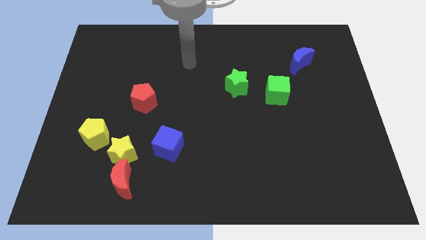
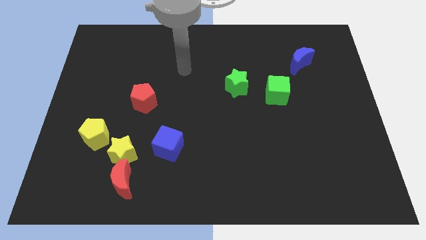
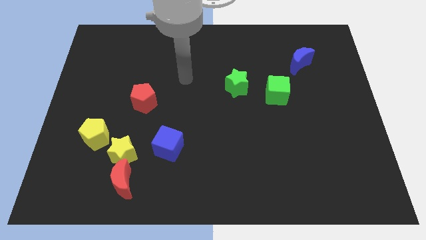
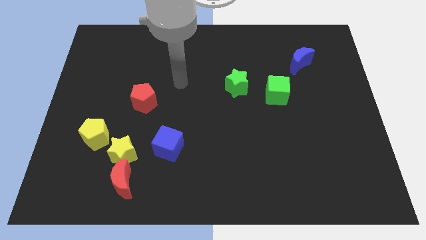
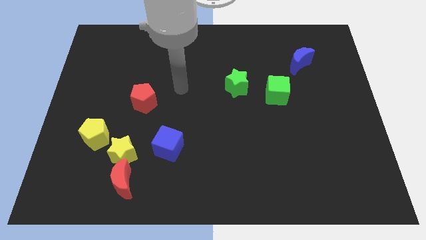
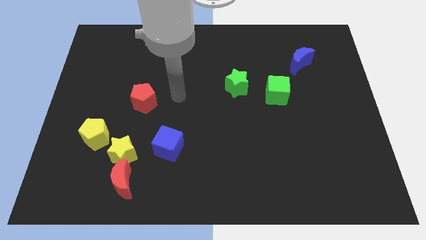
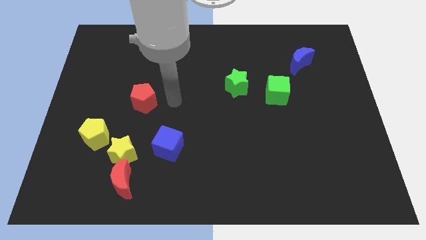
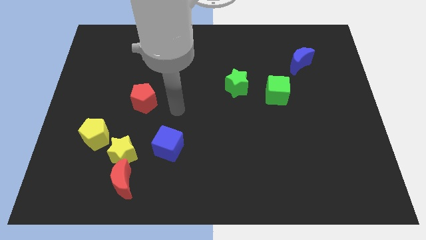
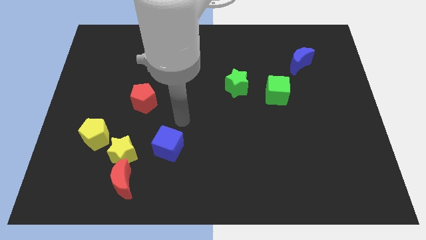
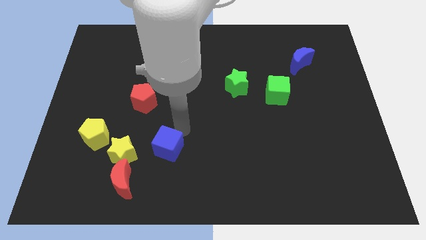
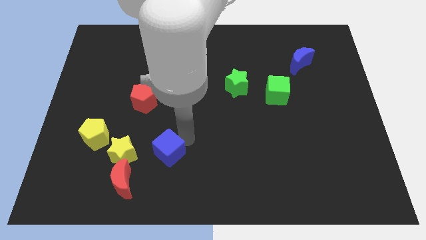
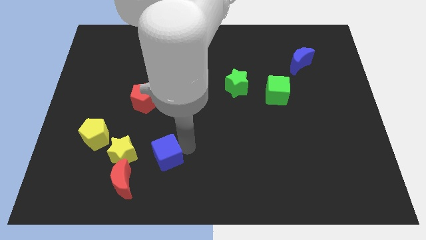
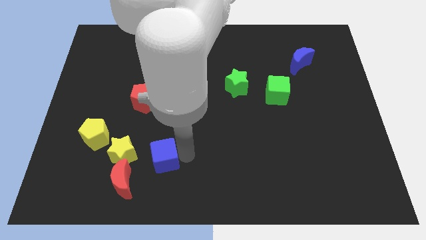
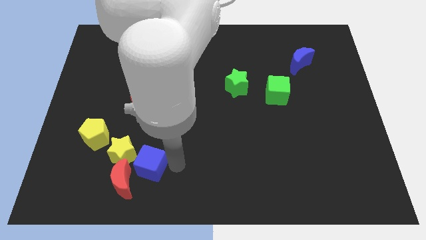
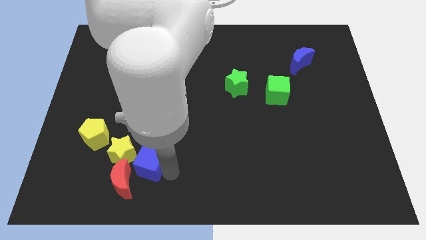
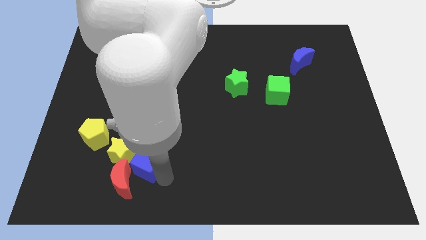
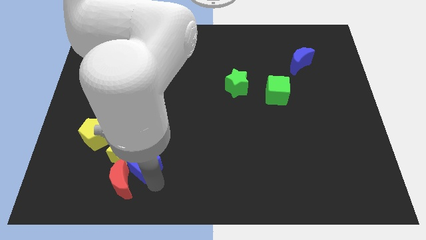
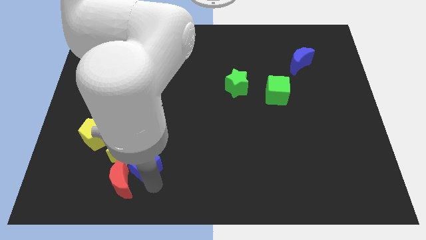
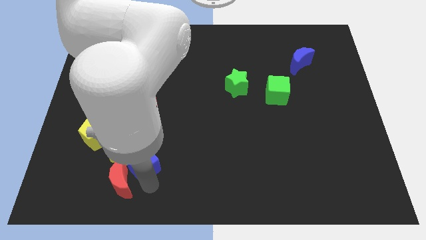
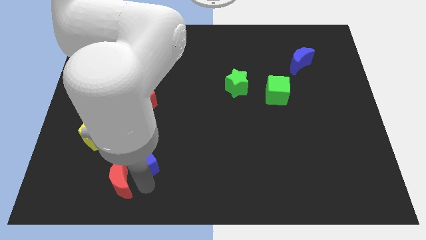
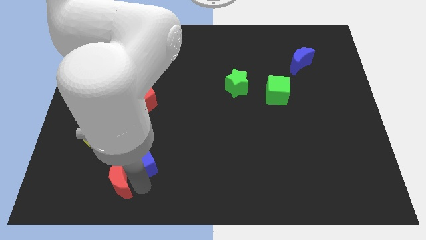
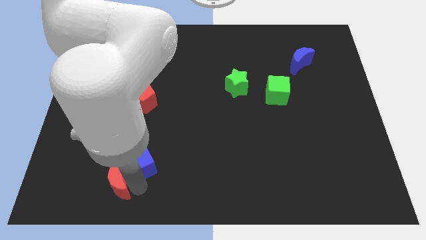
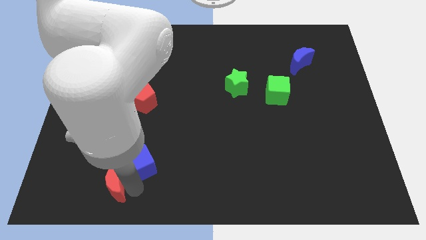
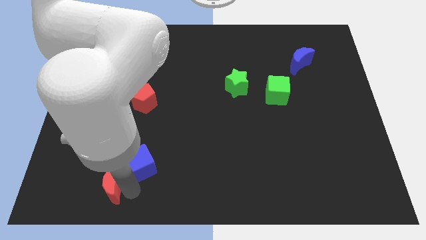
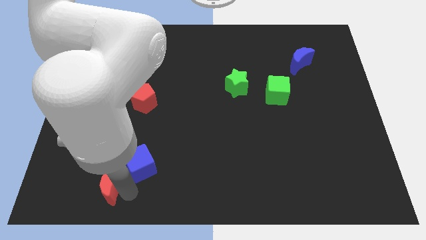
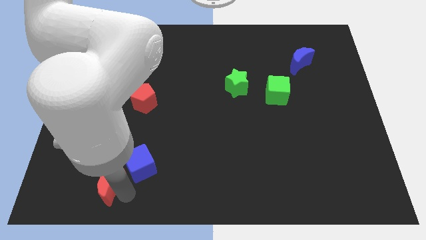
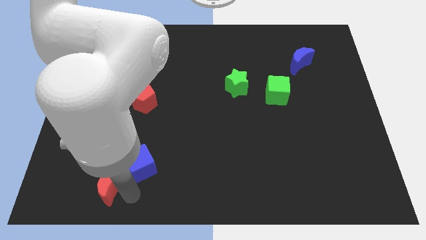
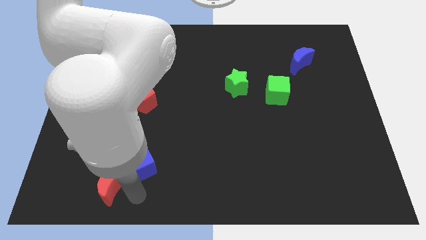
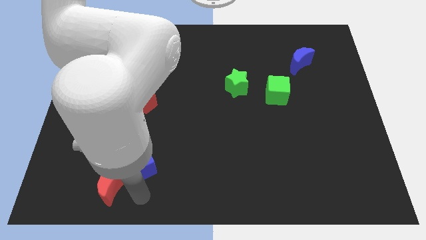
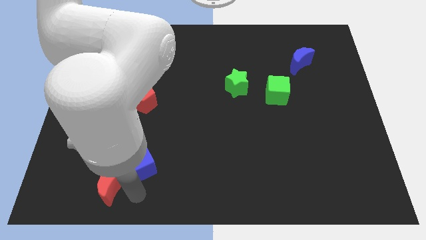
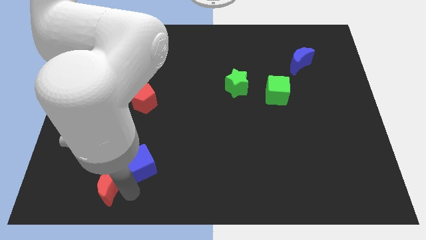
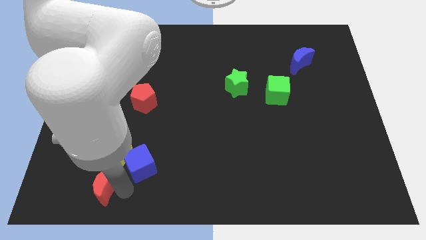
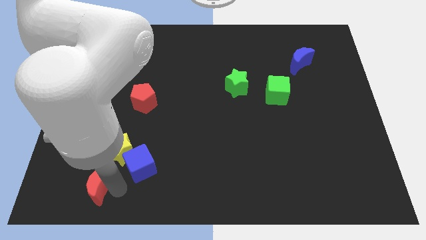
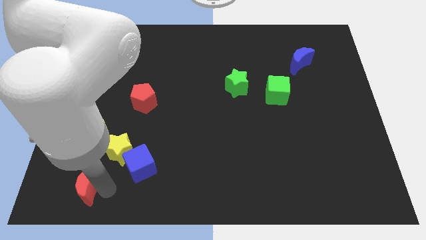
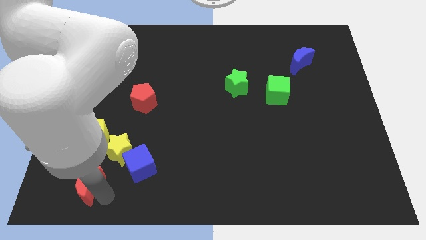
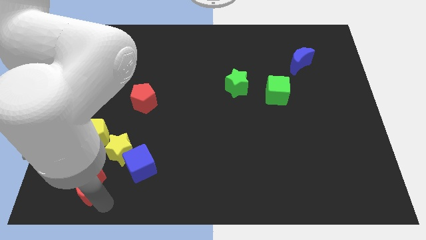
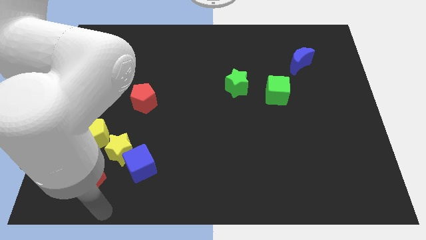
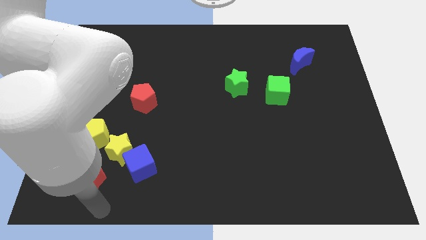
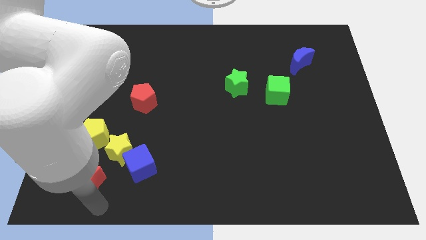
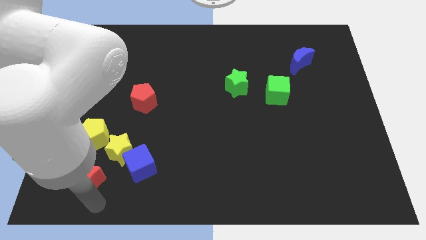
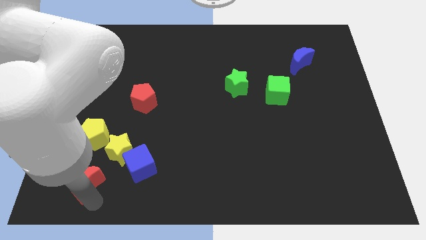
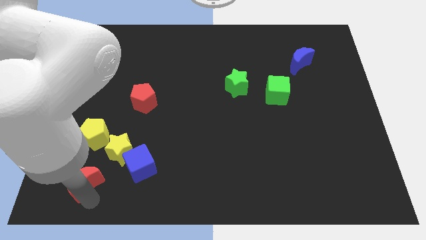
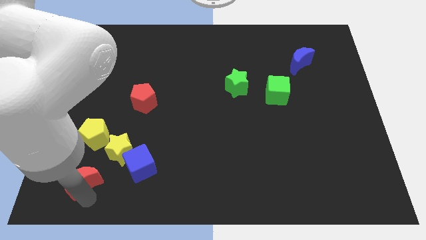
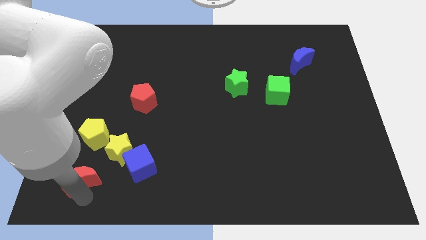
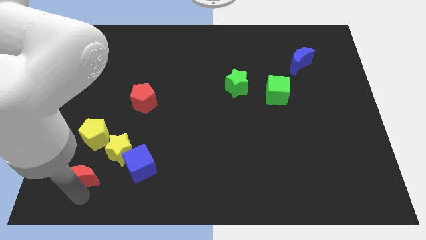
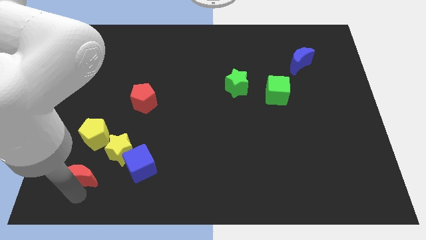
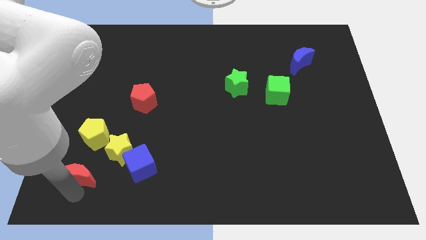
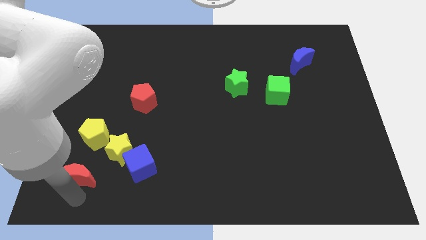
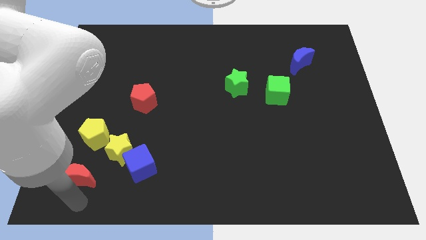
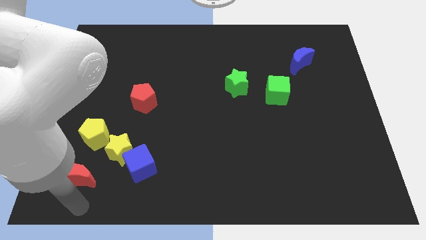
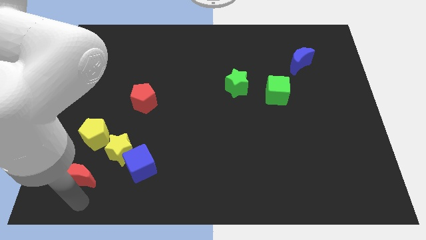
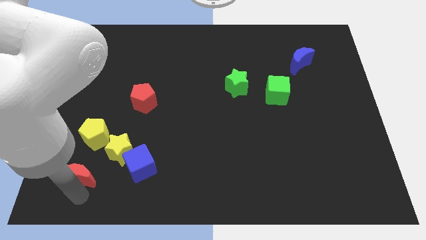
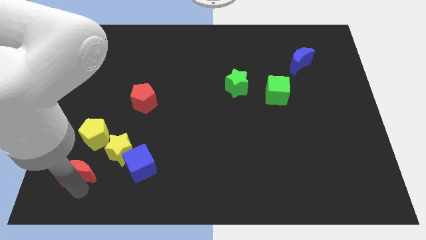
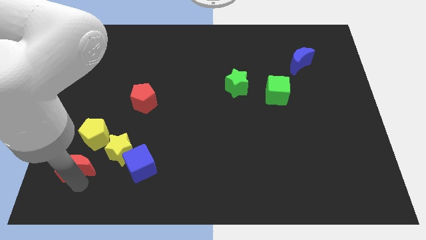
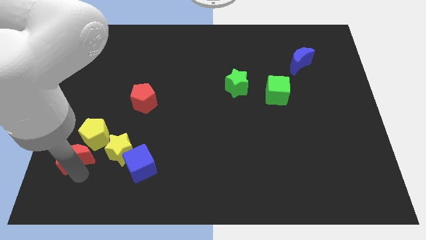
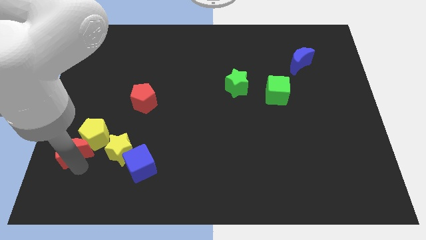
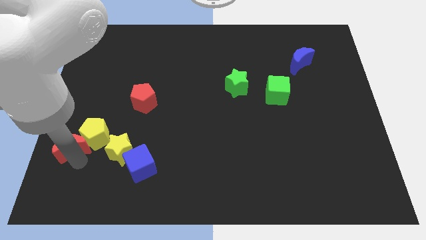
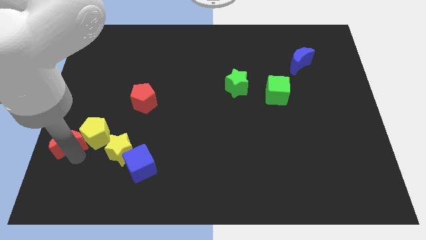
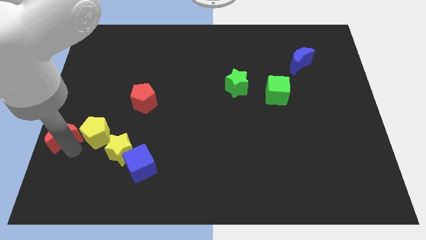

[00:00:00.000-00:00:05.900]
move the red moon to the left side

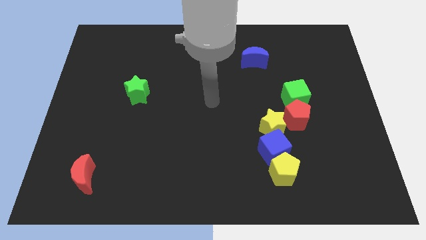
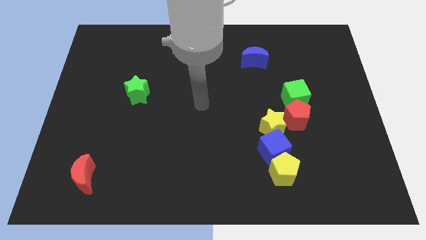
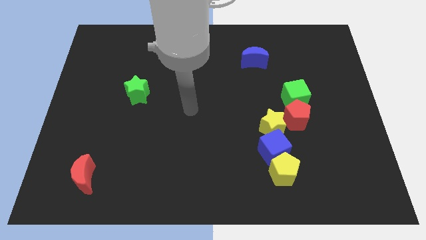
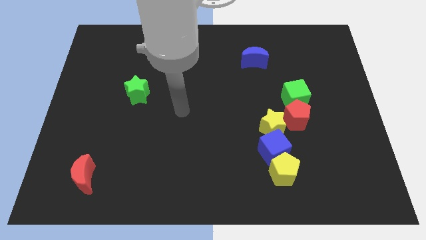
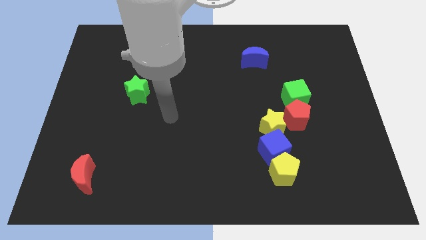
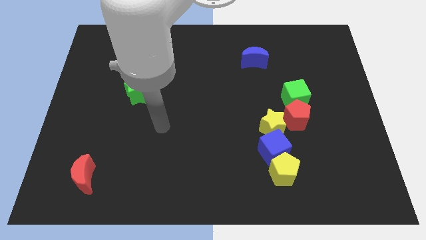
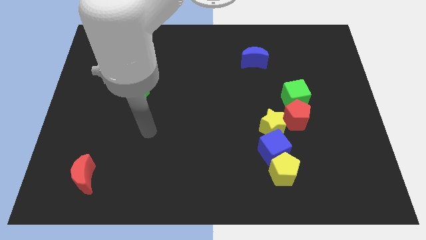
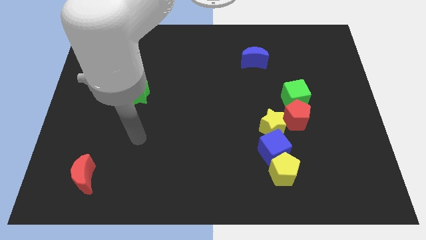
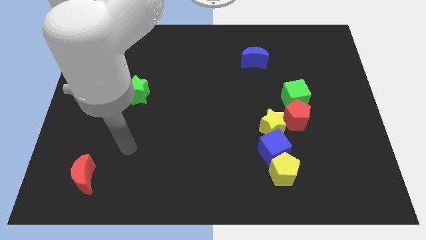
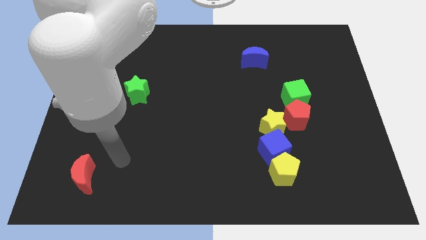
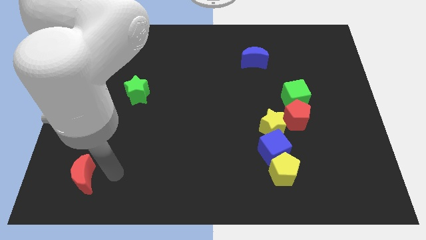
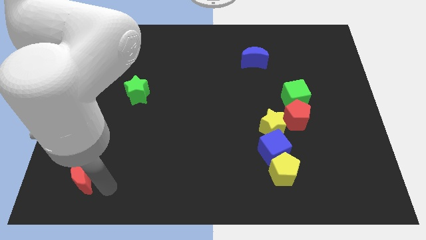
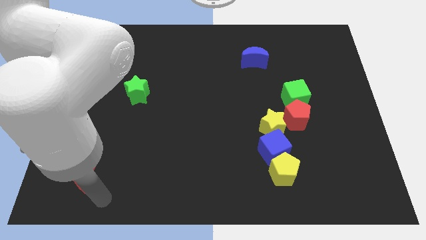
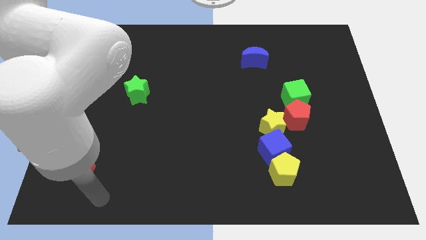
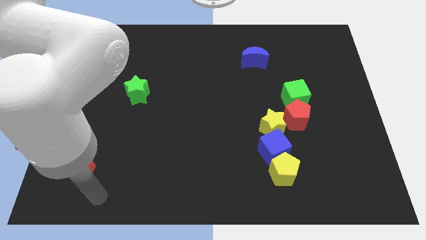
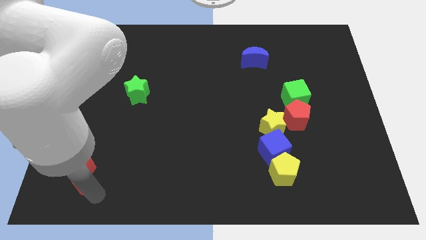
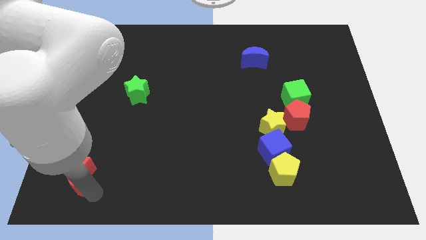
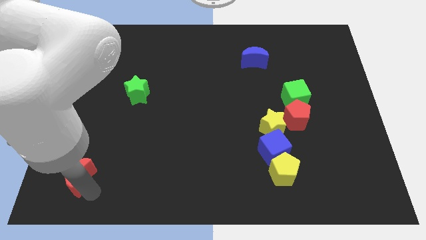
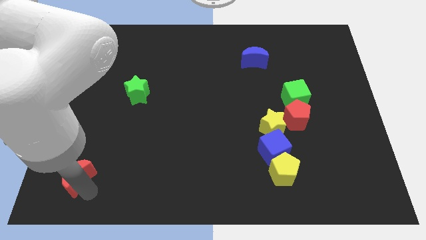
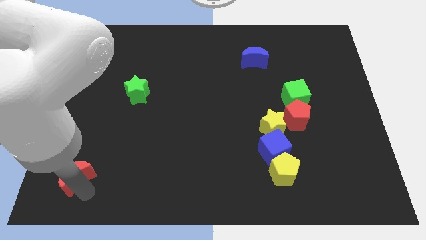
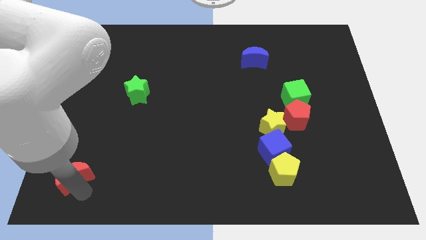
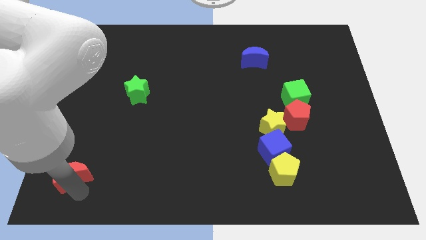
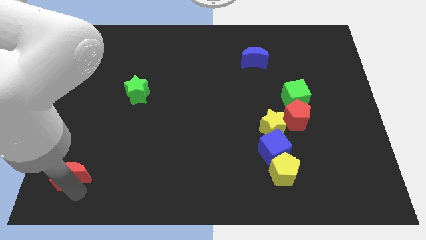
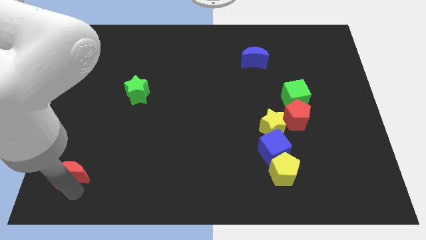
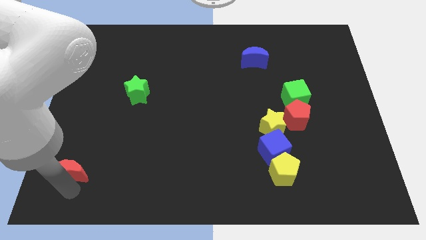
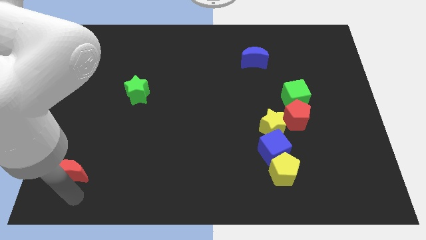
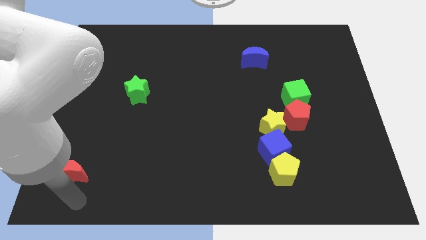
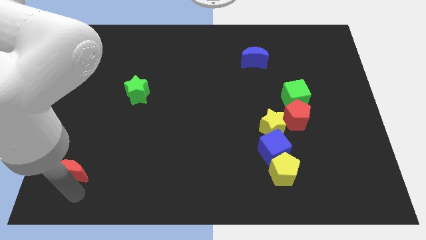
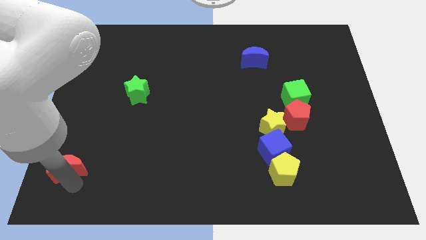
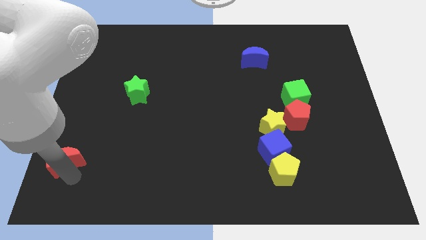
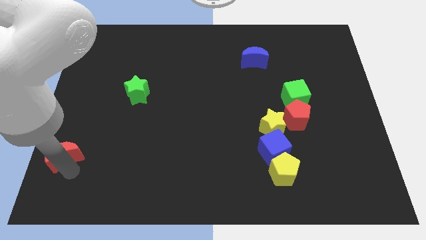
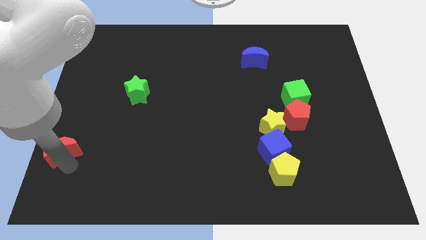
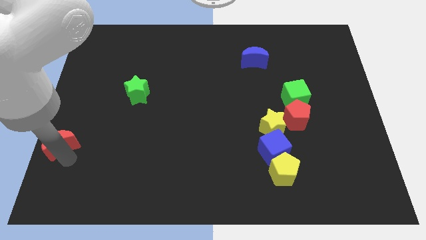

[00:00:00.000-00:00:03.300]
slide the red moon to the left side of the board
